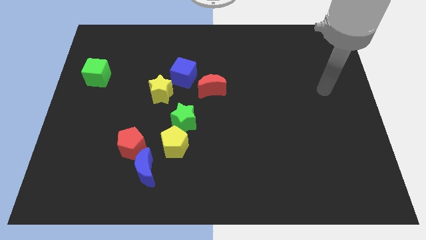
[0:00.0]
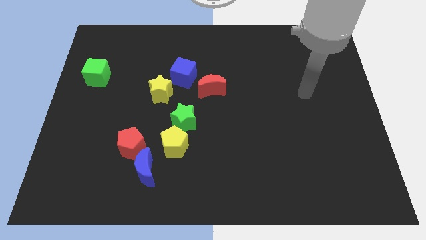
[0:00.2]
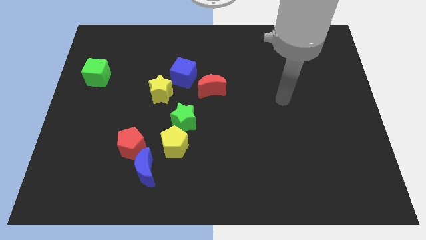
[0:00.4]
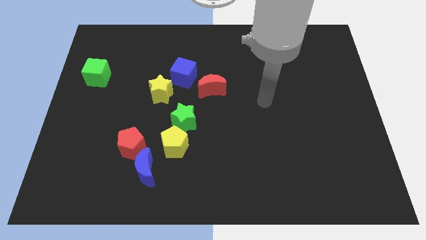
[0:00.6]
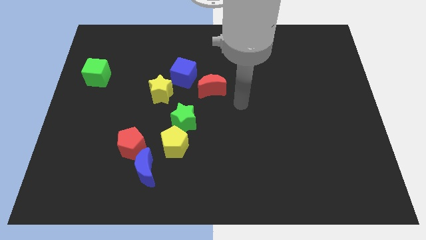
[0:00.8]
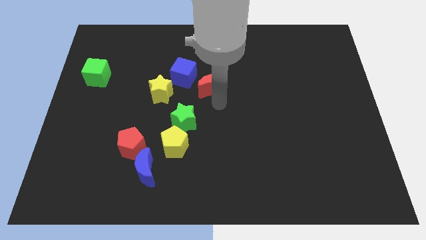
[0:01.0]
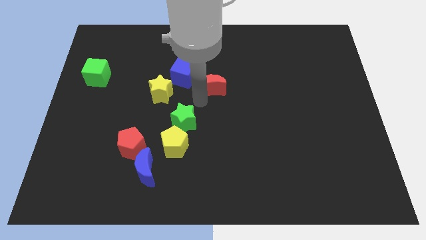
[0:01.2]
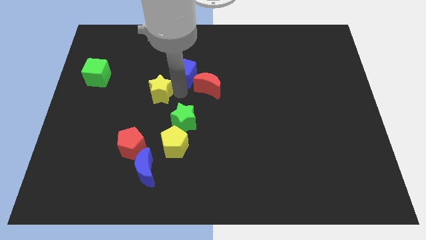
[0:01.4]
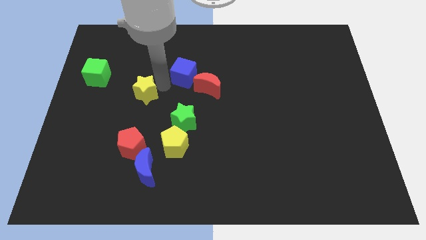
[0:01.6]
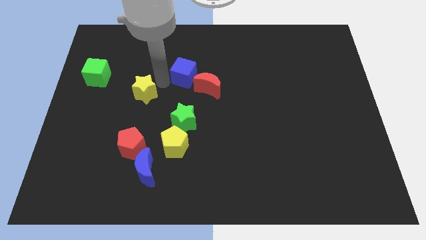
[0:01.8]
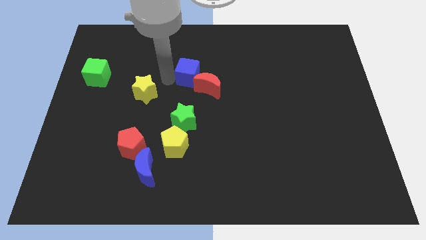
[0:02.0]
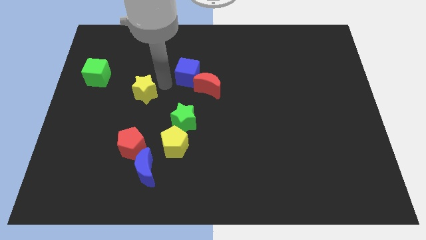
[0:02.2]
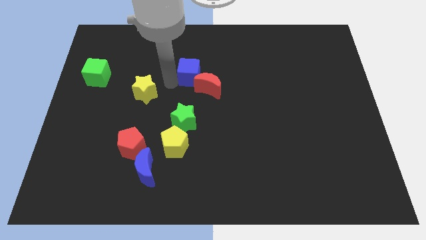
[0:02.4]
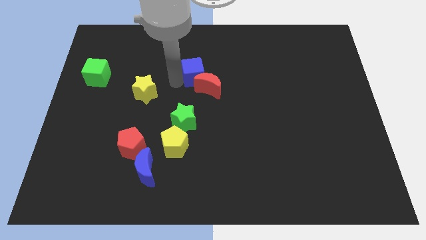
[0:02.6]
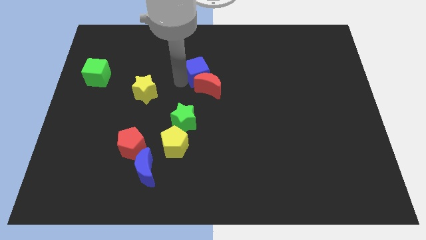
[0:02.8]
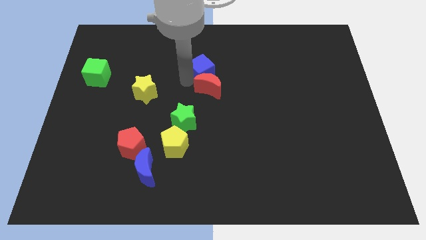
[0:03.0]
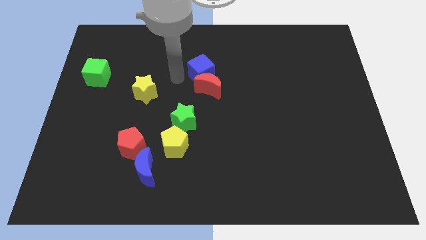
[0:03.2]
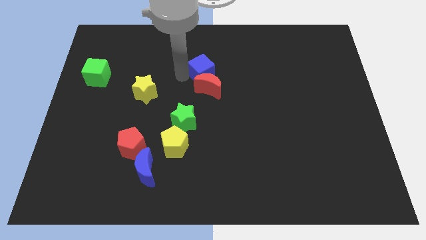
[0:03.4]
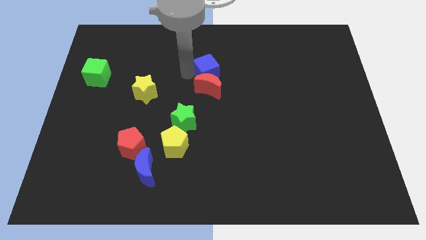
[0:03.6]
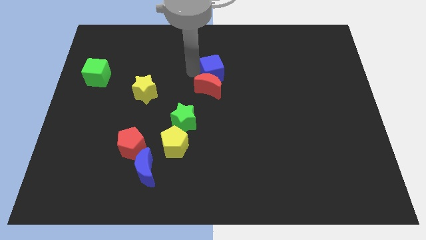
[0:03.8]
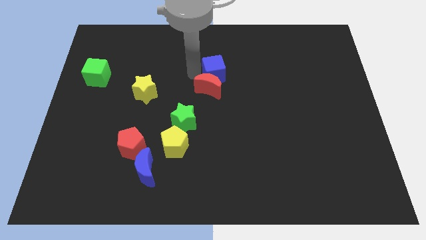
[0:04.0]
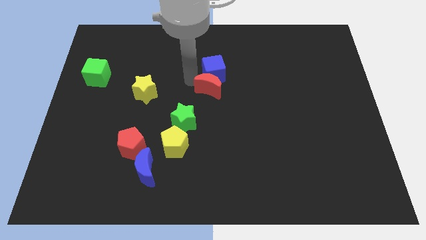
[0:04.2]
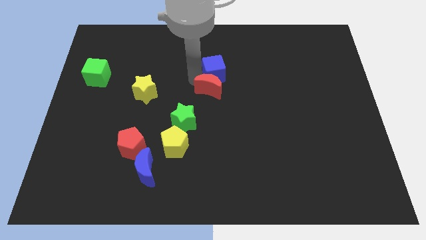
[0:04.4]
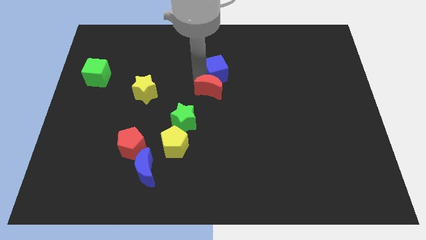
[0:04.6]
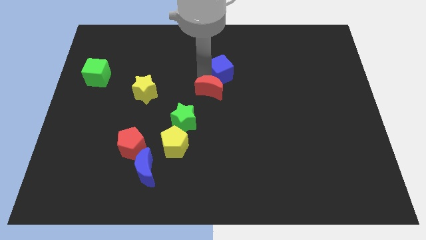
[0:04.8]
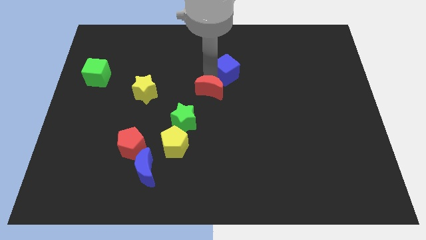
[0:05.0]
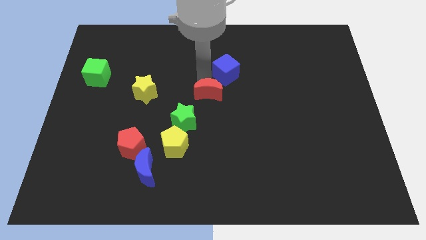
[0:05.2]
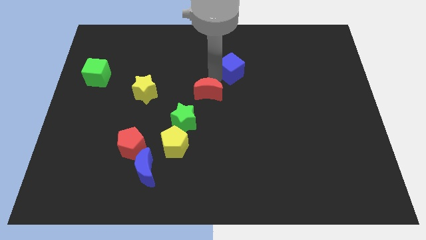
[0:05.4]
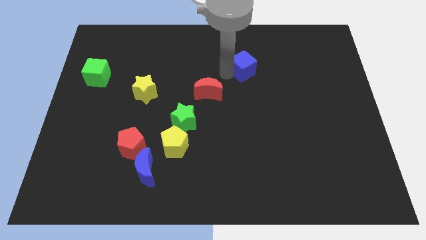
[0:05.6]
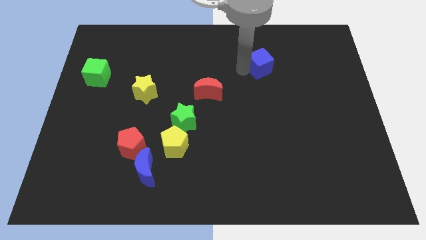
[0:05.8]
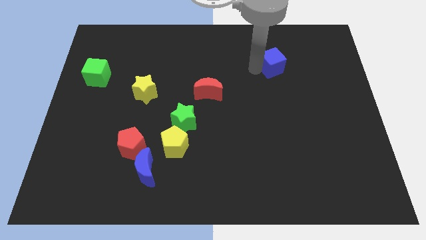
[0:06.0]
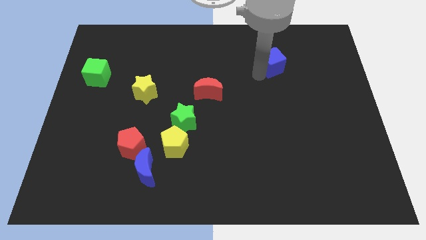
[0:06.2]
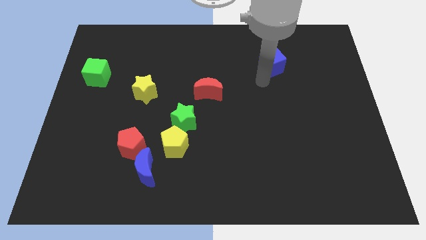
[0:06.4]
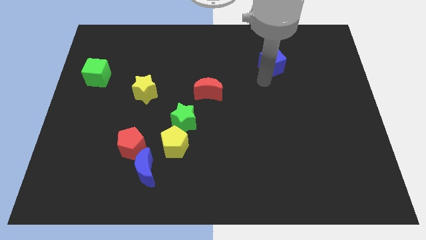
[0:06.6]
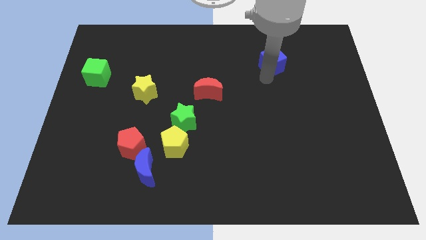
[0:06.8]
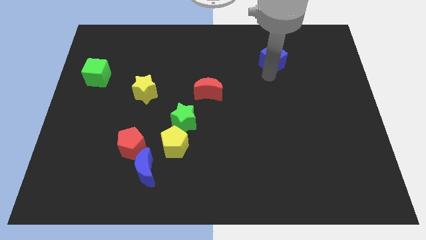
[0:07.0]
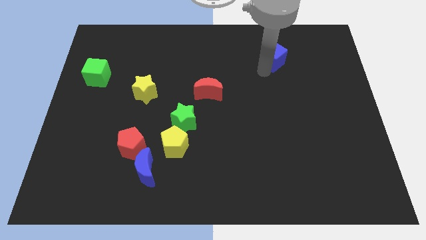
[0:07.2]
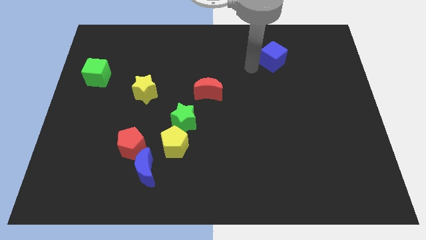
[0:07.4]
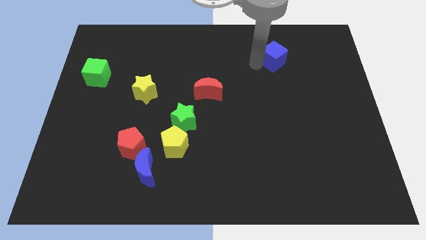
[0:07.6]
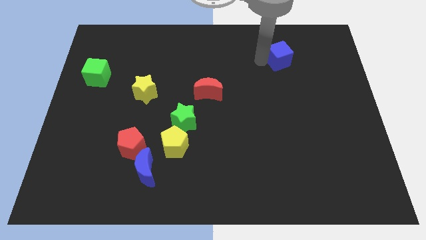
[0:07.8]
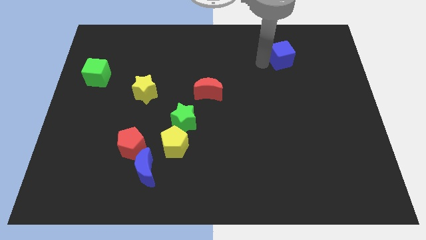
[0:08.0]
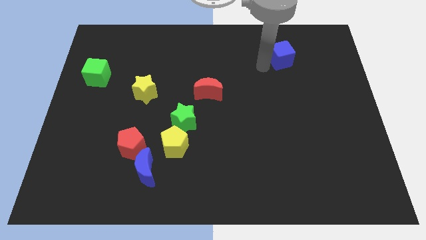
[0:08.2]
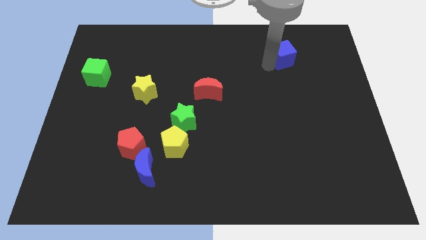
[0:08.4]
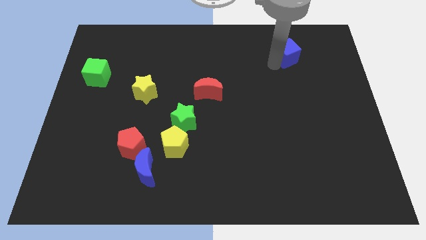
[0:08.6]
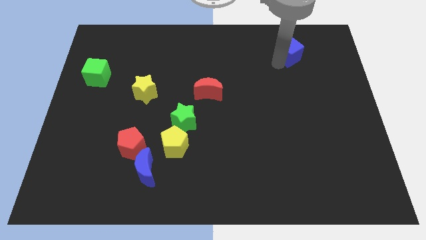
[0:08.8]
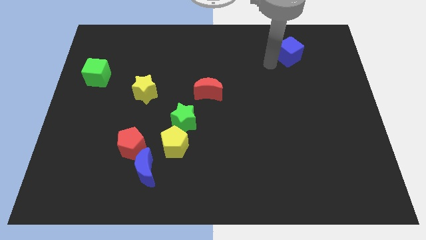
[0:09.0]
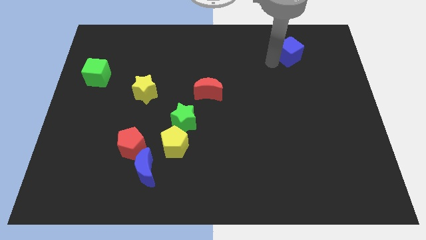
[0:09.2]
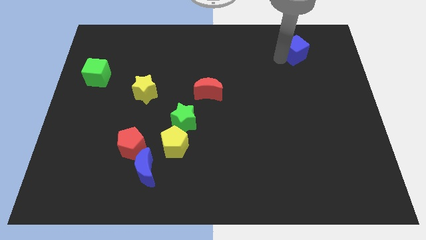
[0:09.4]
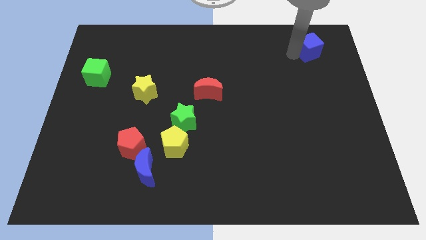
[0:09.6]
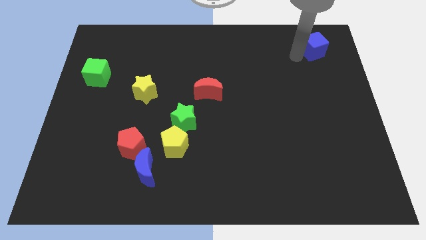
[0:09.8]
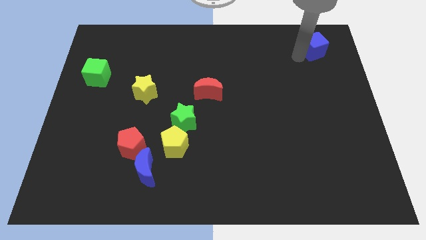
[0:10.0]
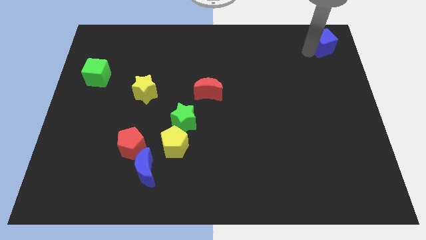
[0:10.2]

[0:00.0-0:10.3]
slide the blue cube to the upper right corner
